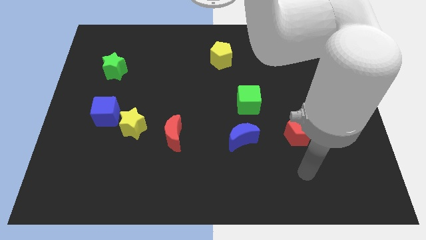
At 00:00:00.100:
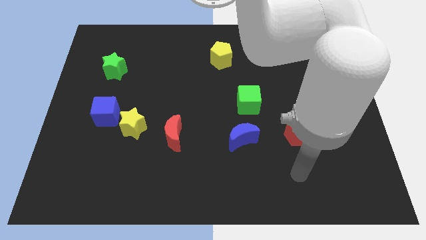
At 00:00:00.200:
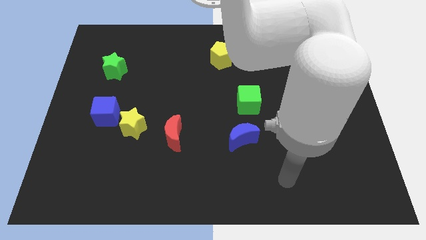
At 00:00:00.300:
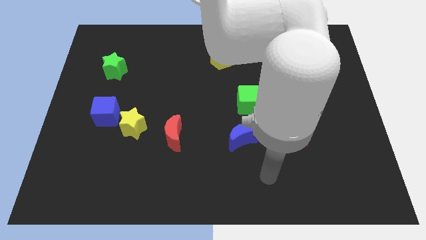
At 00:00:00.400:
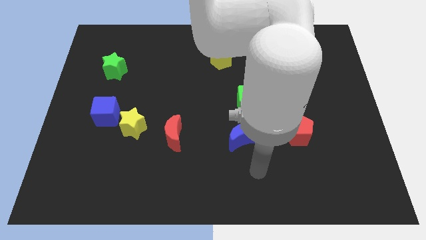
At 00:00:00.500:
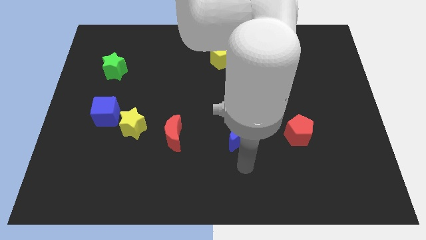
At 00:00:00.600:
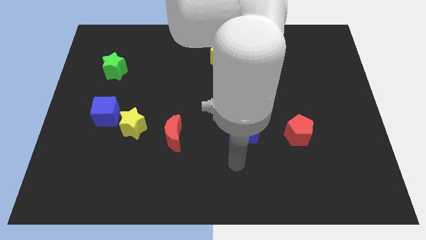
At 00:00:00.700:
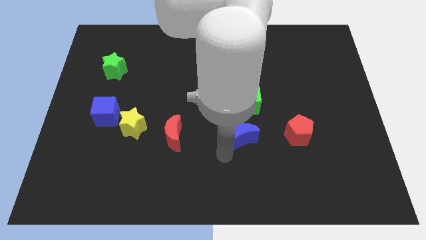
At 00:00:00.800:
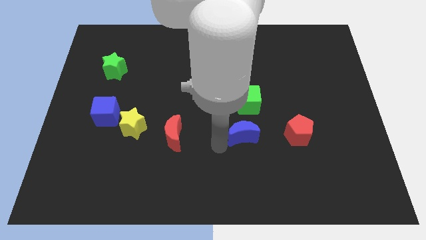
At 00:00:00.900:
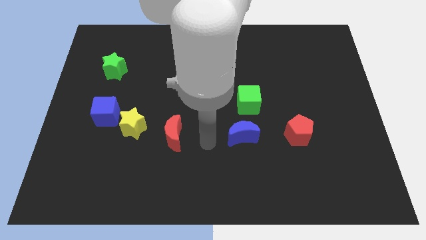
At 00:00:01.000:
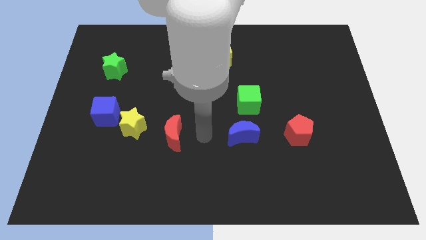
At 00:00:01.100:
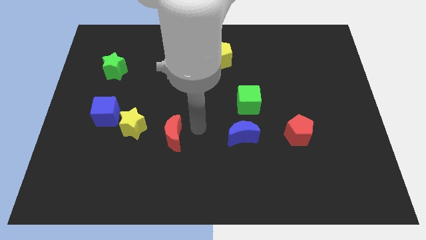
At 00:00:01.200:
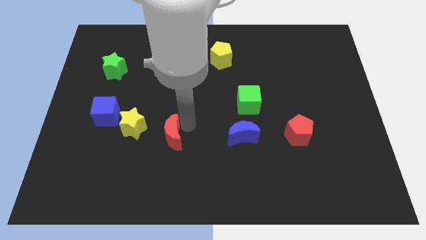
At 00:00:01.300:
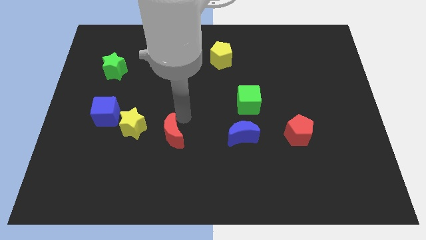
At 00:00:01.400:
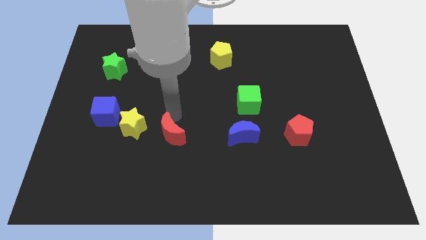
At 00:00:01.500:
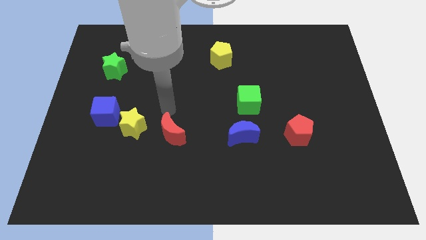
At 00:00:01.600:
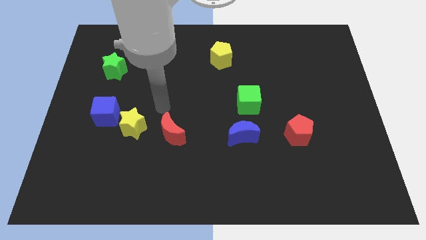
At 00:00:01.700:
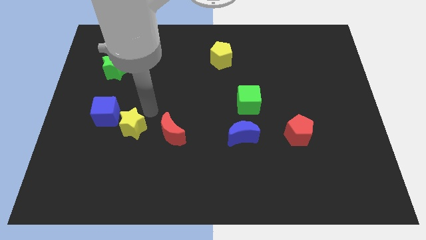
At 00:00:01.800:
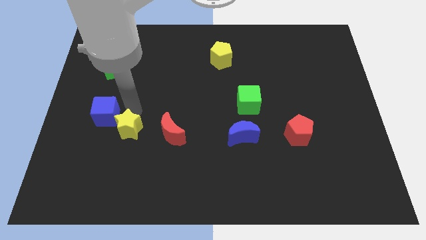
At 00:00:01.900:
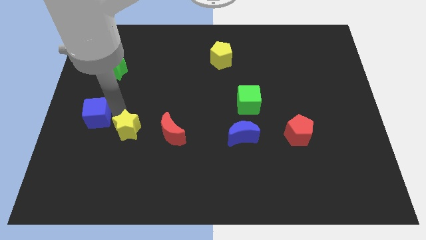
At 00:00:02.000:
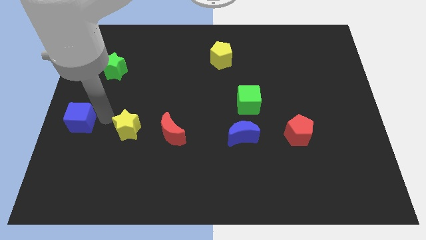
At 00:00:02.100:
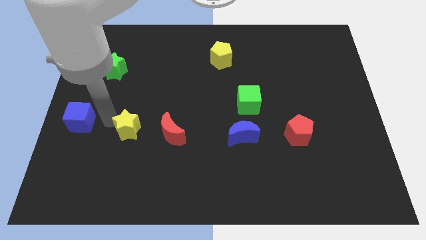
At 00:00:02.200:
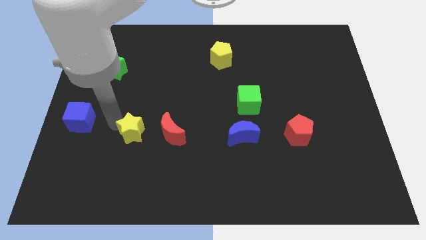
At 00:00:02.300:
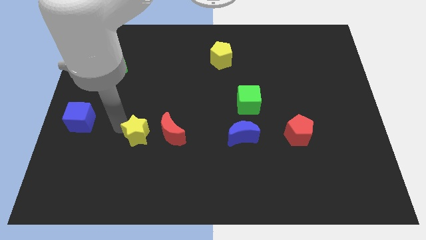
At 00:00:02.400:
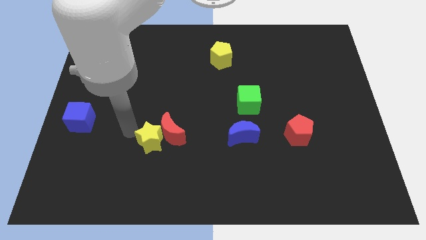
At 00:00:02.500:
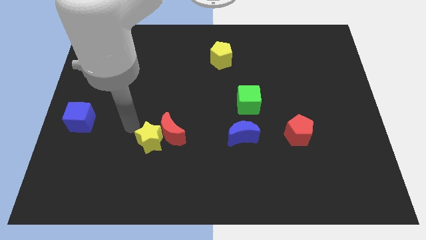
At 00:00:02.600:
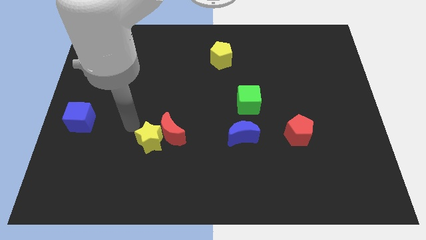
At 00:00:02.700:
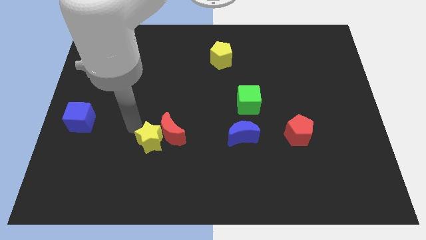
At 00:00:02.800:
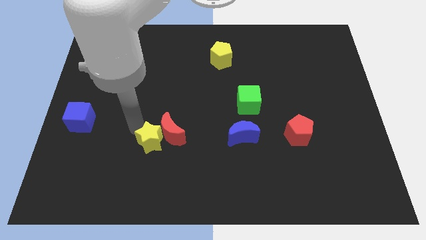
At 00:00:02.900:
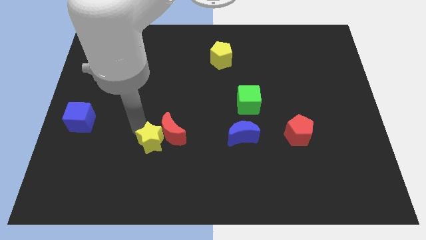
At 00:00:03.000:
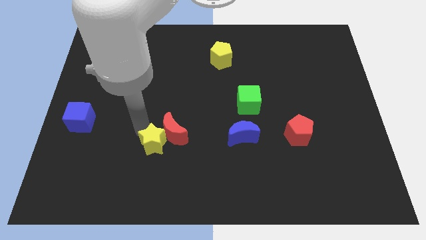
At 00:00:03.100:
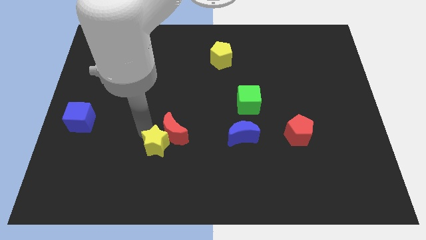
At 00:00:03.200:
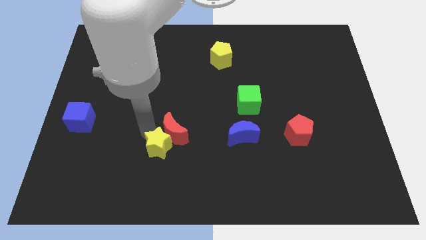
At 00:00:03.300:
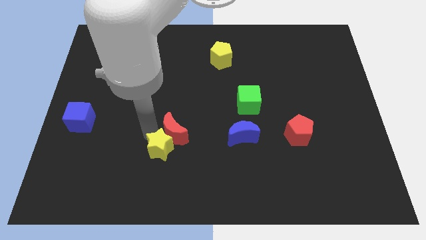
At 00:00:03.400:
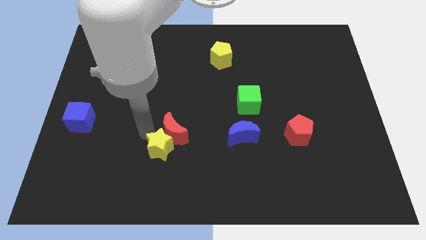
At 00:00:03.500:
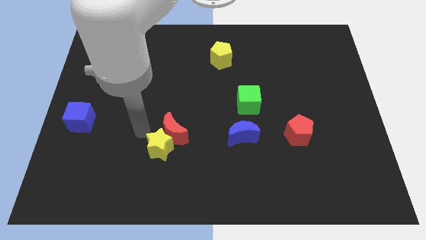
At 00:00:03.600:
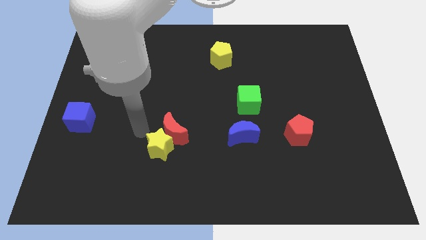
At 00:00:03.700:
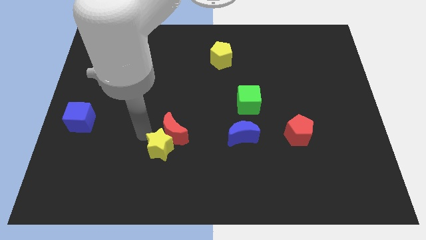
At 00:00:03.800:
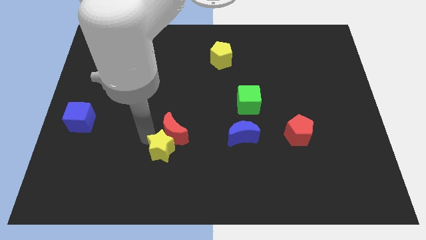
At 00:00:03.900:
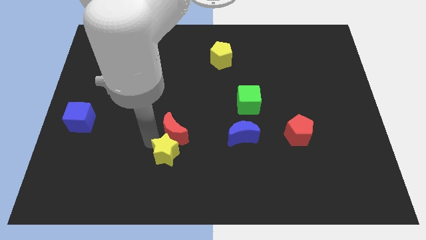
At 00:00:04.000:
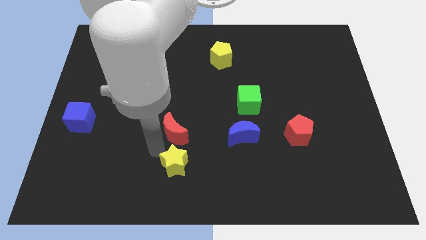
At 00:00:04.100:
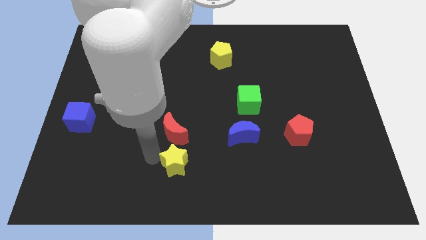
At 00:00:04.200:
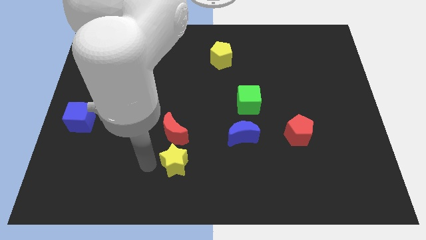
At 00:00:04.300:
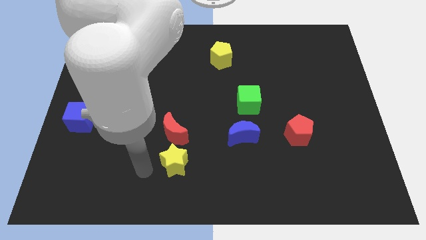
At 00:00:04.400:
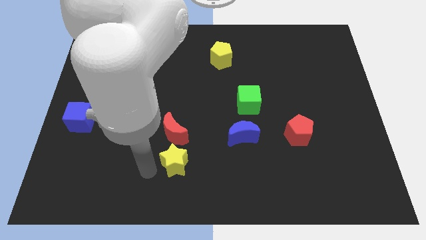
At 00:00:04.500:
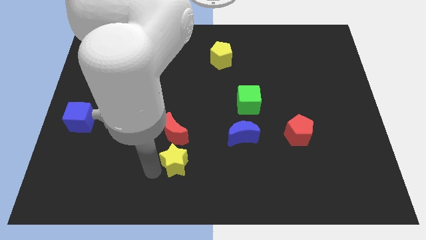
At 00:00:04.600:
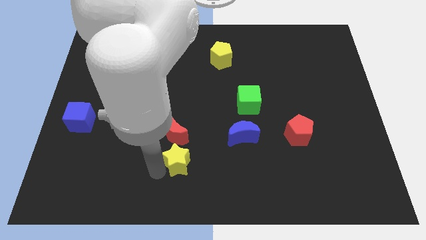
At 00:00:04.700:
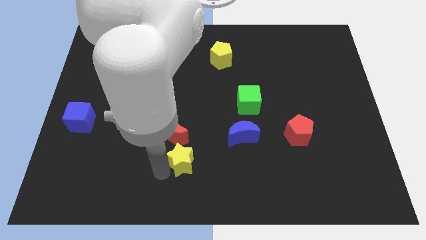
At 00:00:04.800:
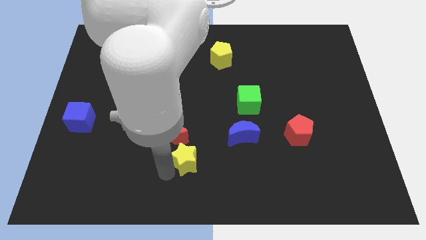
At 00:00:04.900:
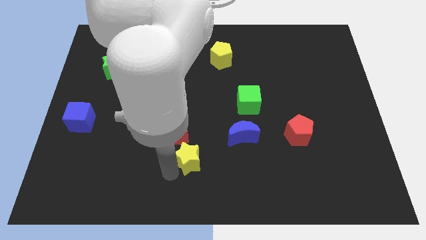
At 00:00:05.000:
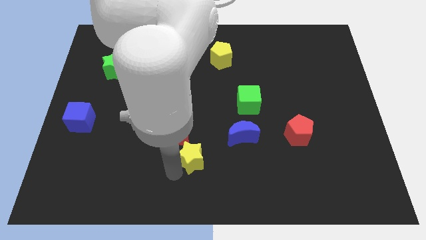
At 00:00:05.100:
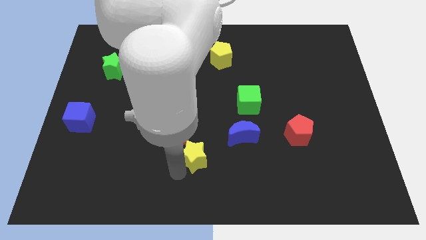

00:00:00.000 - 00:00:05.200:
move the yellow star to the bottom left side of the blue moon

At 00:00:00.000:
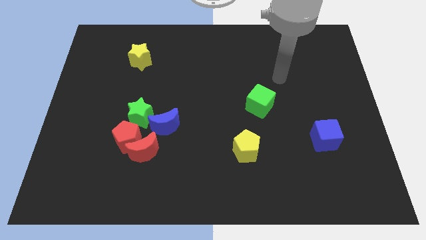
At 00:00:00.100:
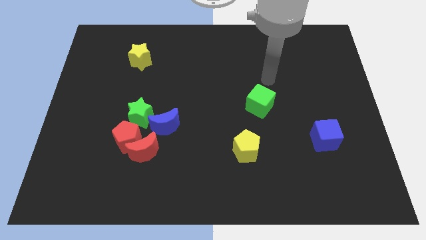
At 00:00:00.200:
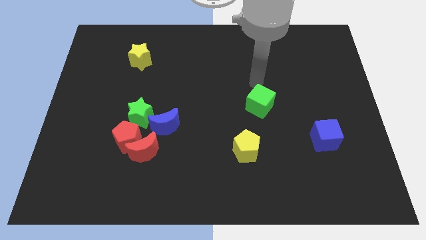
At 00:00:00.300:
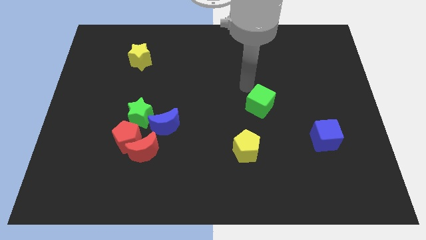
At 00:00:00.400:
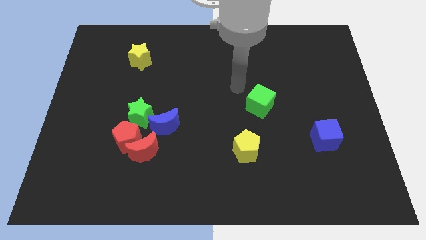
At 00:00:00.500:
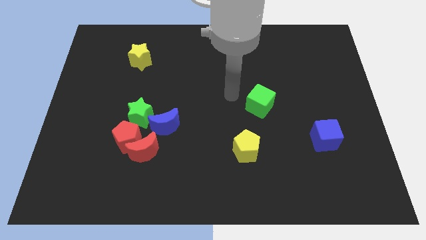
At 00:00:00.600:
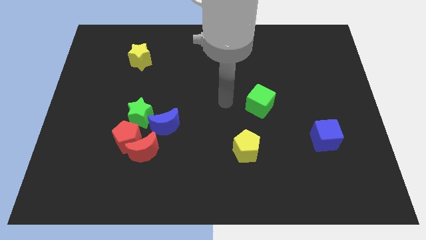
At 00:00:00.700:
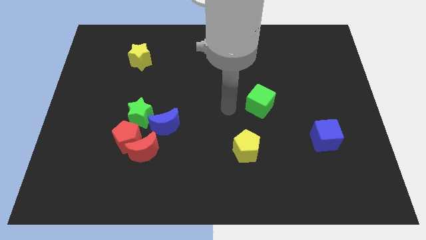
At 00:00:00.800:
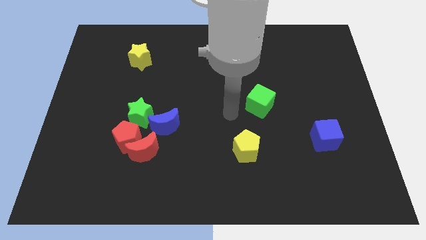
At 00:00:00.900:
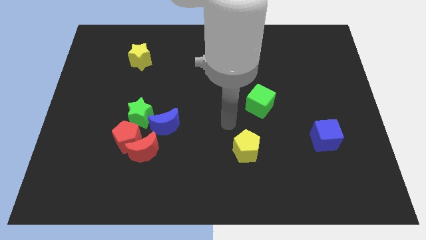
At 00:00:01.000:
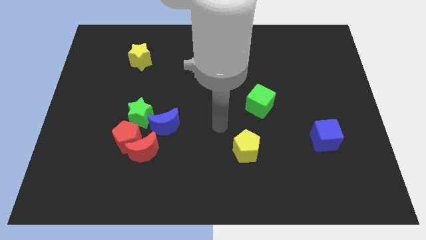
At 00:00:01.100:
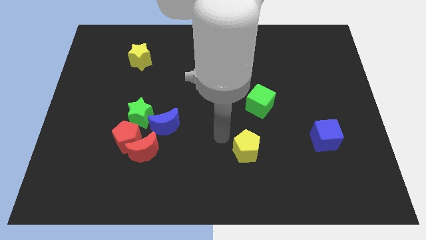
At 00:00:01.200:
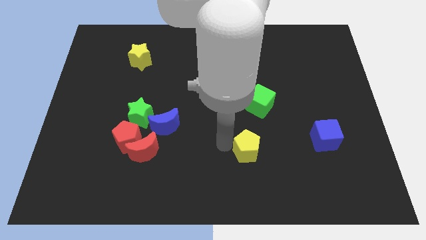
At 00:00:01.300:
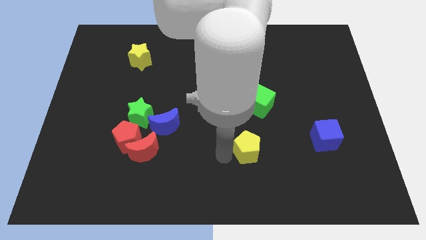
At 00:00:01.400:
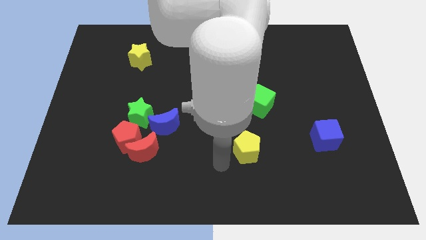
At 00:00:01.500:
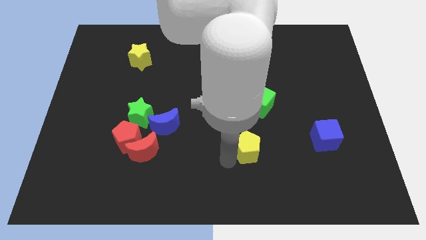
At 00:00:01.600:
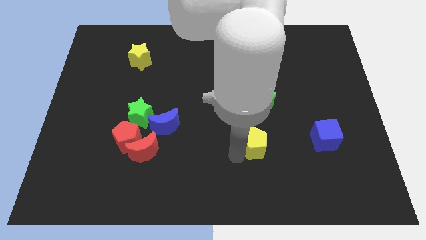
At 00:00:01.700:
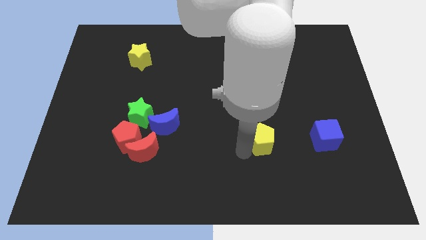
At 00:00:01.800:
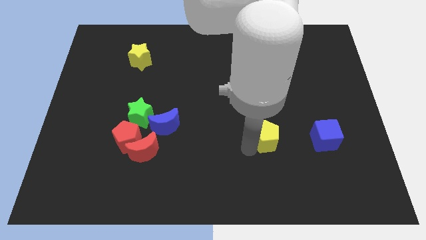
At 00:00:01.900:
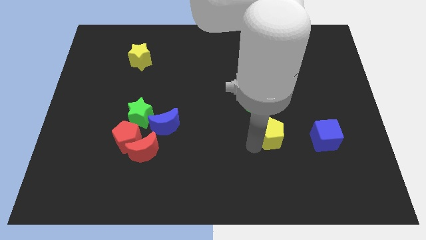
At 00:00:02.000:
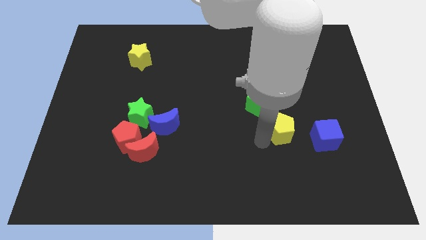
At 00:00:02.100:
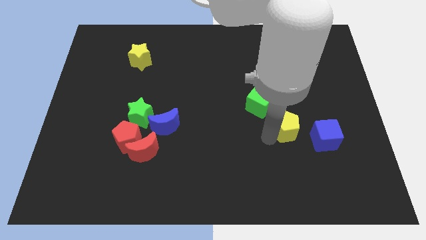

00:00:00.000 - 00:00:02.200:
slide the yellow pentagon to the top left side of the blue cube
